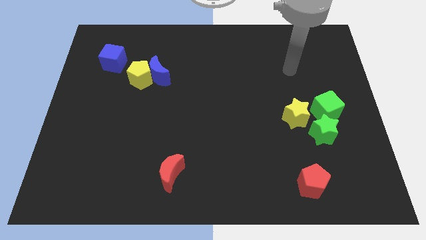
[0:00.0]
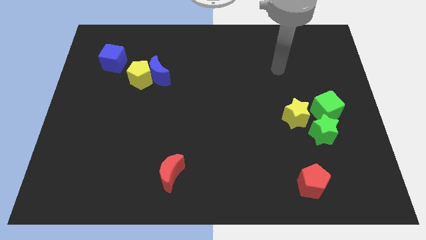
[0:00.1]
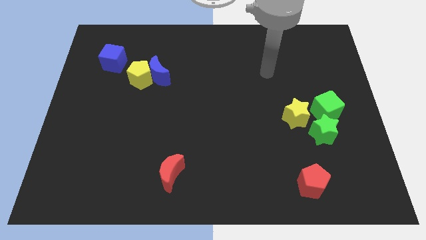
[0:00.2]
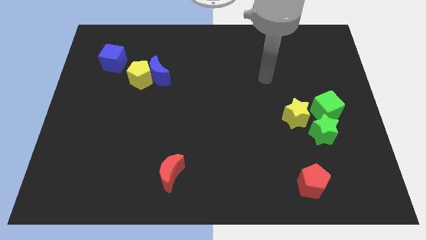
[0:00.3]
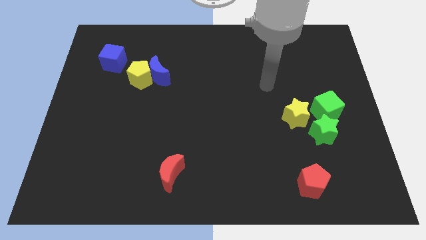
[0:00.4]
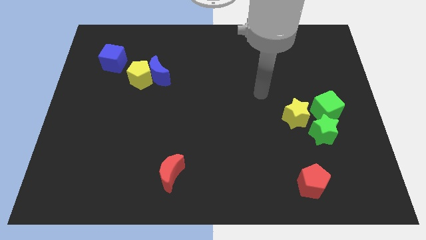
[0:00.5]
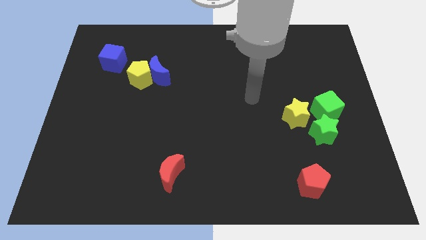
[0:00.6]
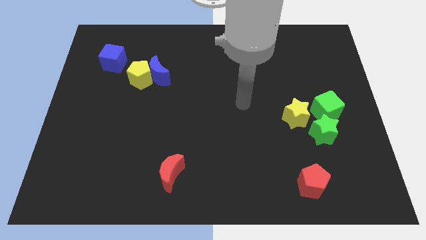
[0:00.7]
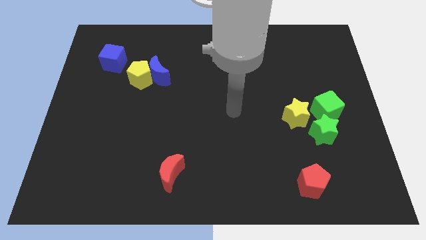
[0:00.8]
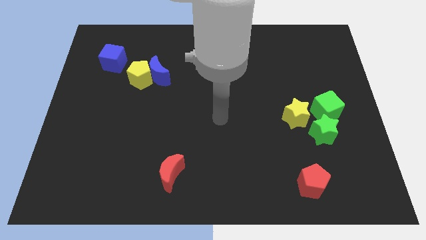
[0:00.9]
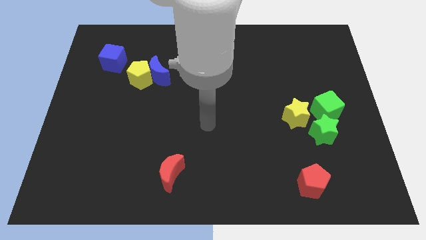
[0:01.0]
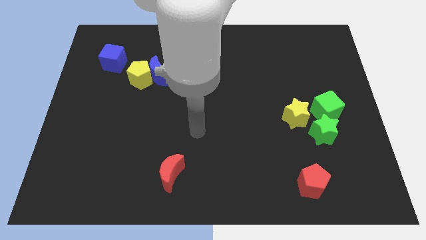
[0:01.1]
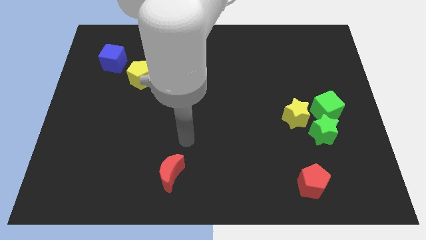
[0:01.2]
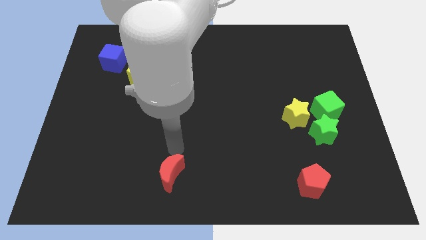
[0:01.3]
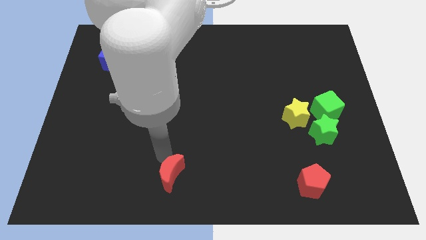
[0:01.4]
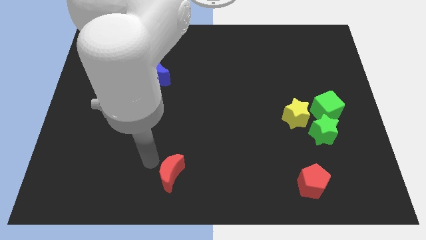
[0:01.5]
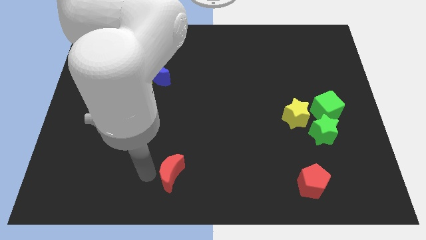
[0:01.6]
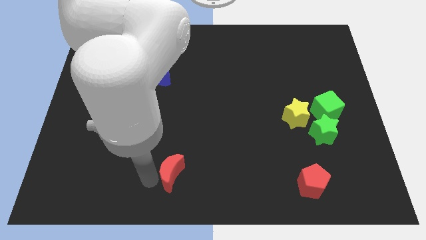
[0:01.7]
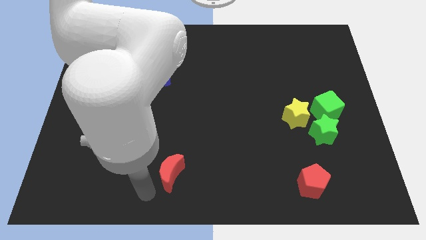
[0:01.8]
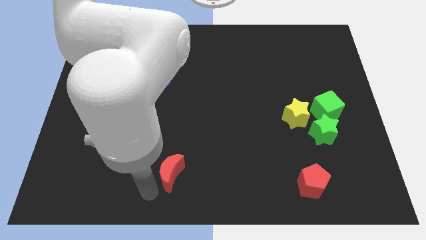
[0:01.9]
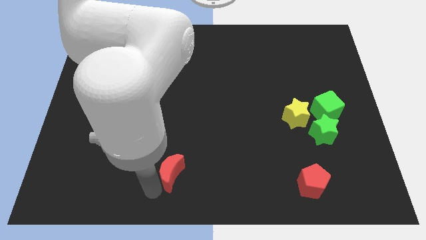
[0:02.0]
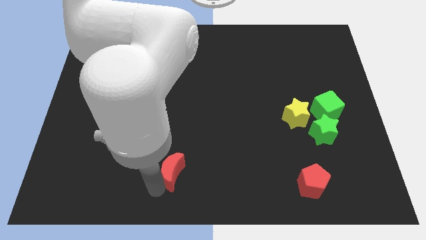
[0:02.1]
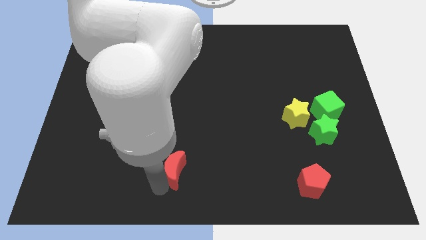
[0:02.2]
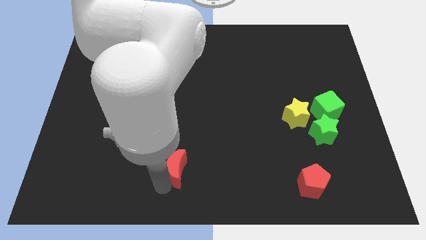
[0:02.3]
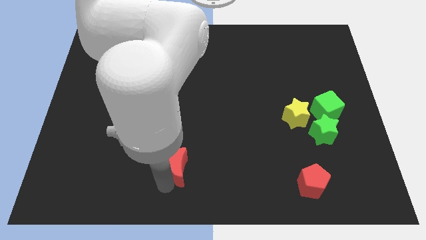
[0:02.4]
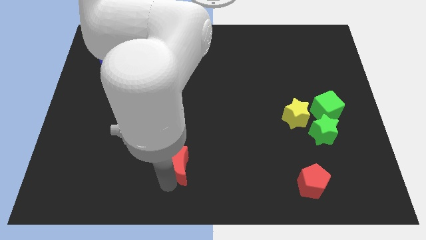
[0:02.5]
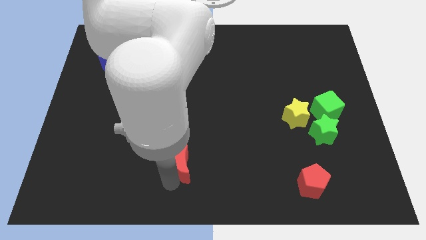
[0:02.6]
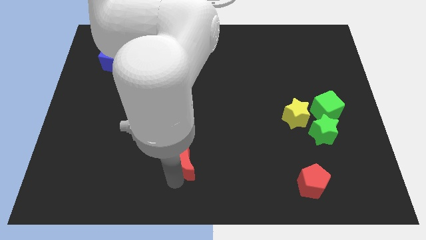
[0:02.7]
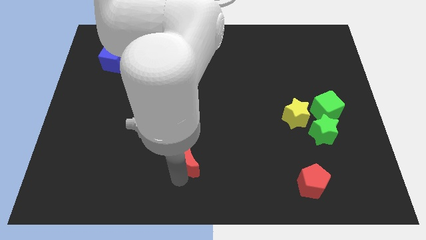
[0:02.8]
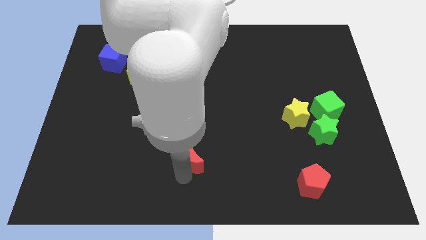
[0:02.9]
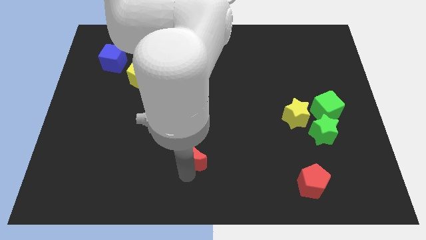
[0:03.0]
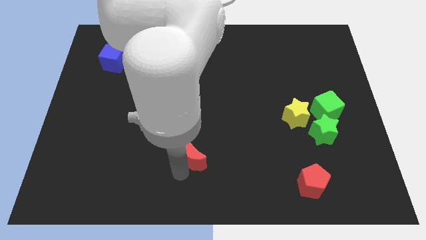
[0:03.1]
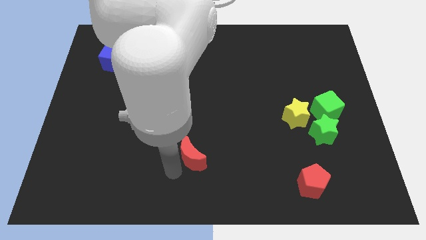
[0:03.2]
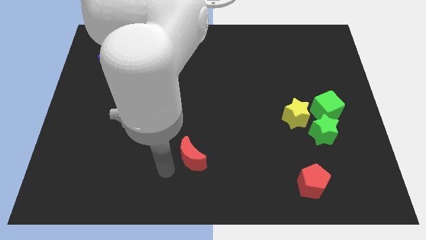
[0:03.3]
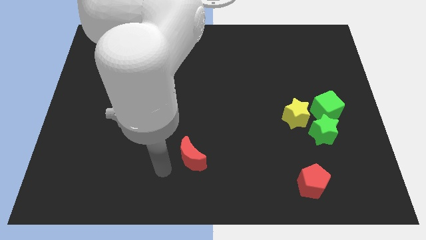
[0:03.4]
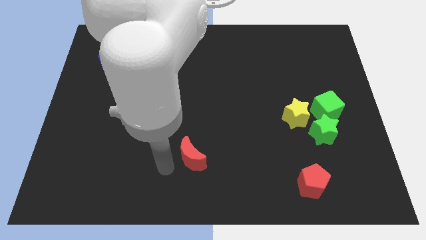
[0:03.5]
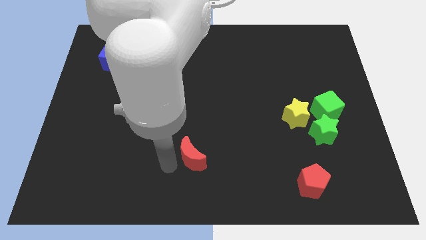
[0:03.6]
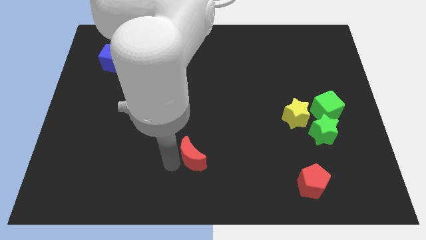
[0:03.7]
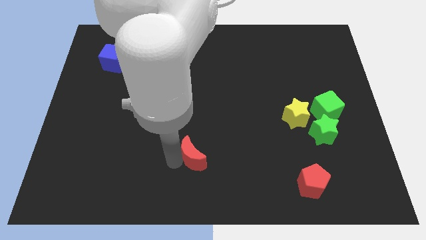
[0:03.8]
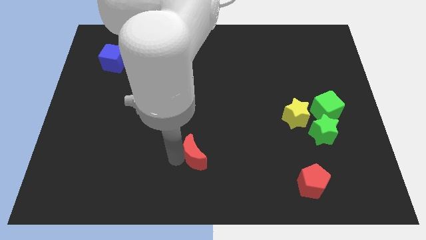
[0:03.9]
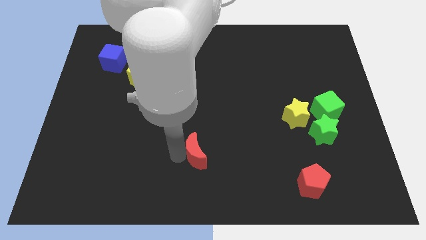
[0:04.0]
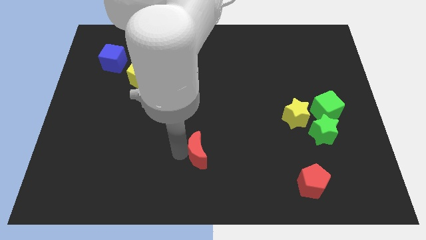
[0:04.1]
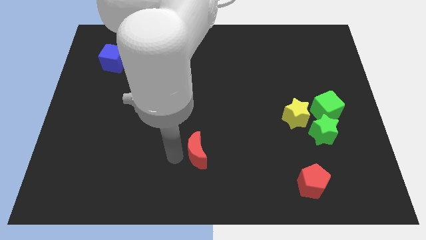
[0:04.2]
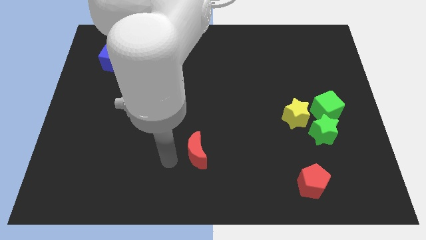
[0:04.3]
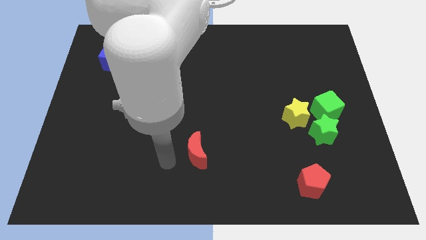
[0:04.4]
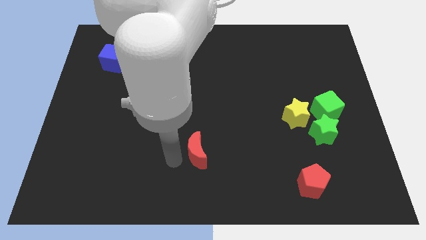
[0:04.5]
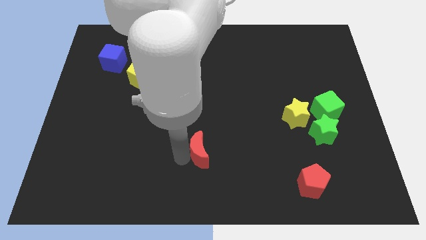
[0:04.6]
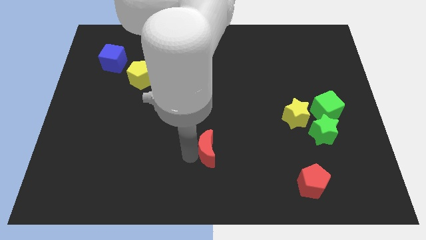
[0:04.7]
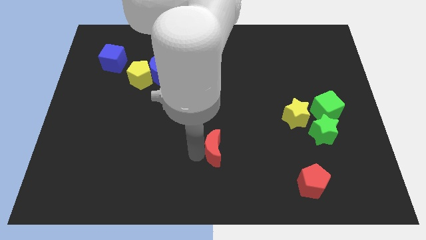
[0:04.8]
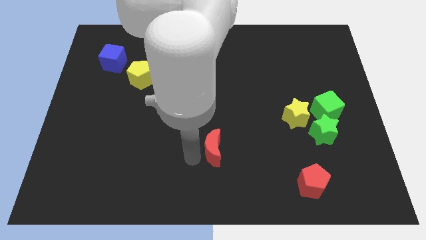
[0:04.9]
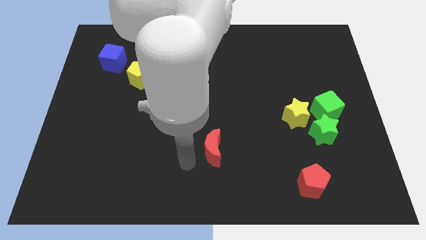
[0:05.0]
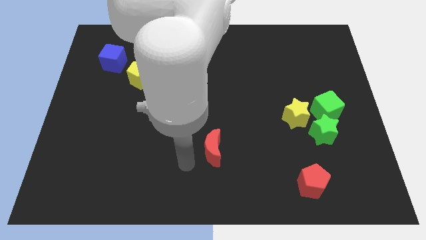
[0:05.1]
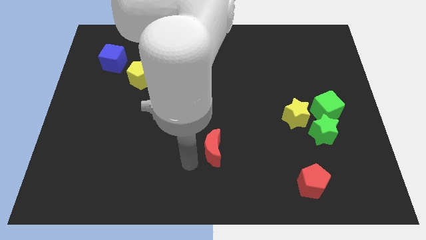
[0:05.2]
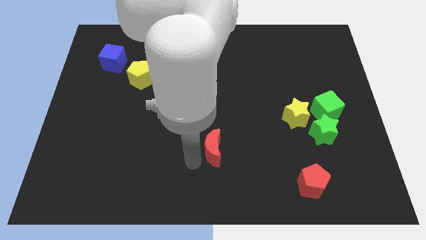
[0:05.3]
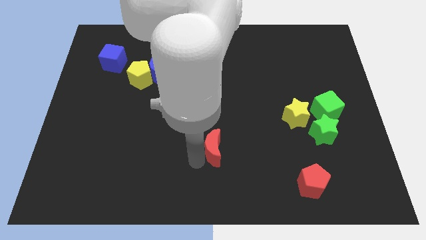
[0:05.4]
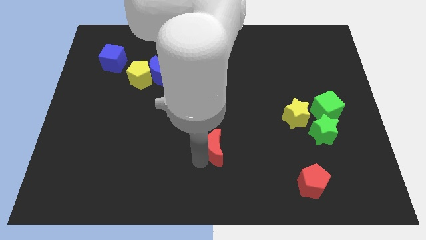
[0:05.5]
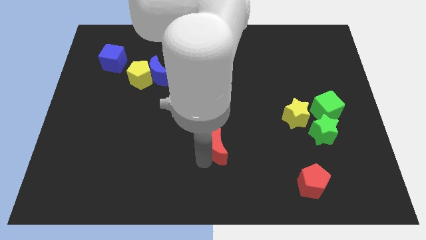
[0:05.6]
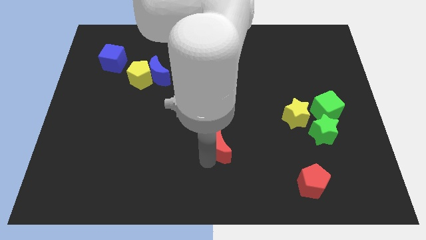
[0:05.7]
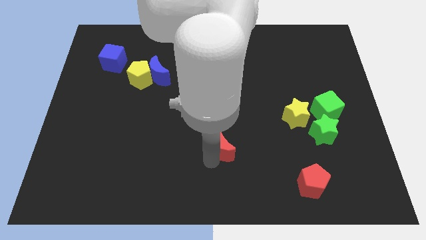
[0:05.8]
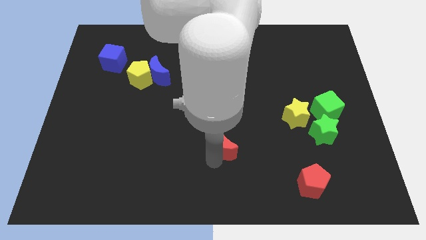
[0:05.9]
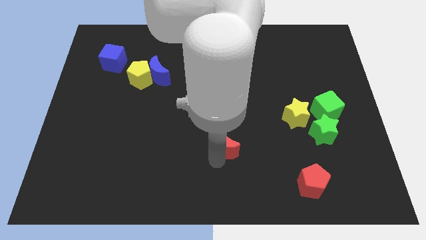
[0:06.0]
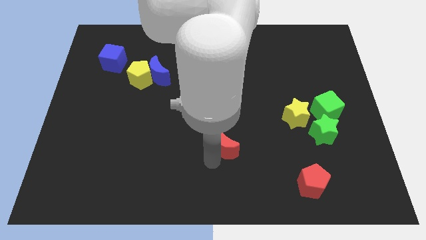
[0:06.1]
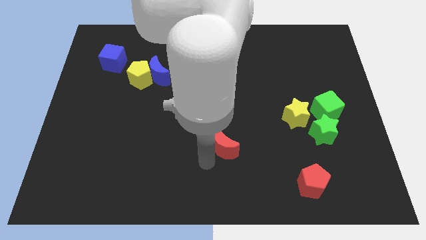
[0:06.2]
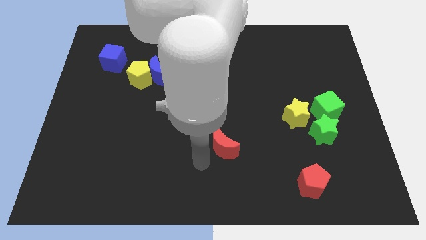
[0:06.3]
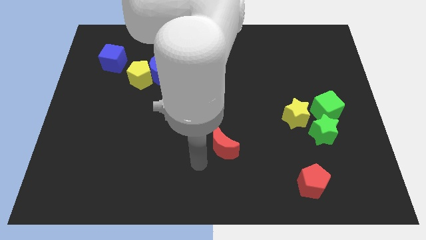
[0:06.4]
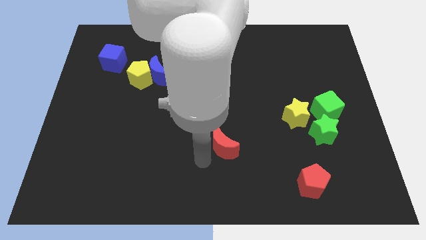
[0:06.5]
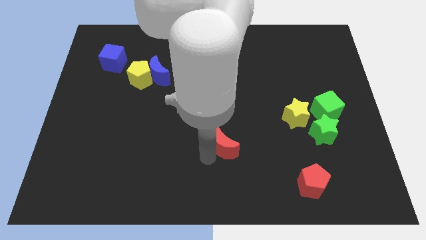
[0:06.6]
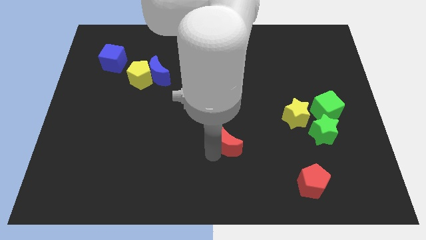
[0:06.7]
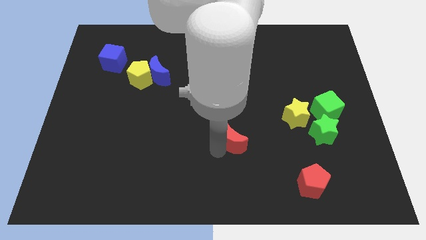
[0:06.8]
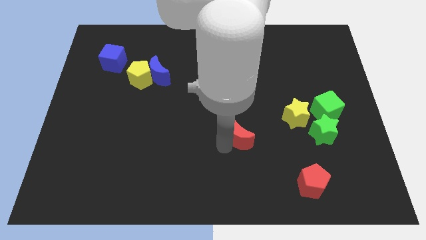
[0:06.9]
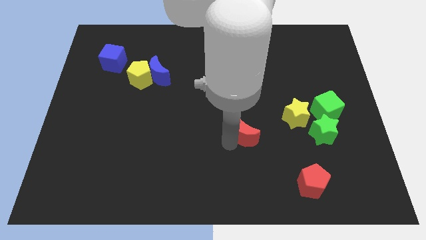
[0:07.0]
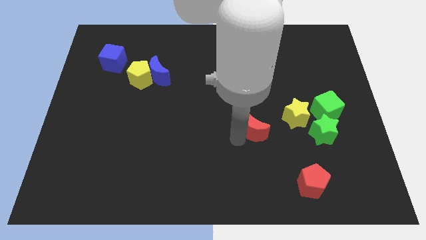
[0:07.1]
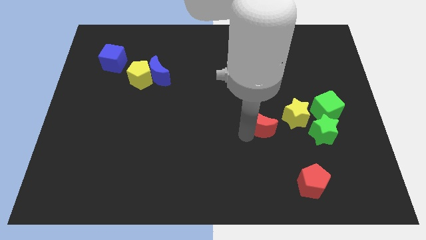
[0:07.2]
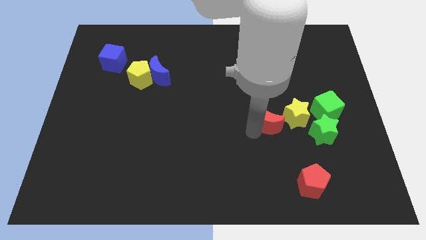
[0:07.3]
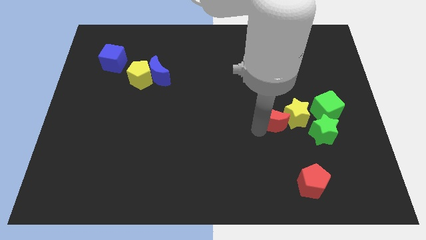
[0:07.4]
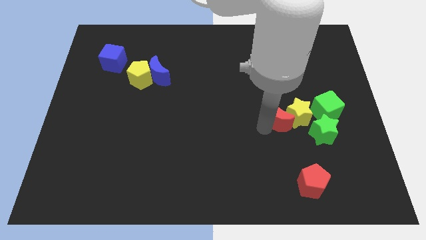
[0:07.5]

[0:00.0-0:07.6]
push the red moon to the top left side of the green star
